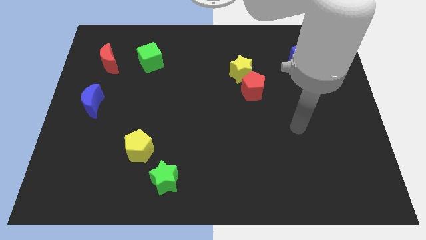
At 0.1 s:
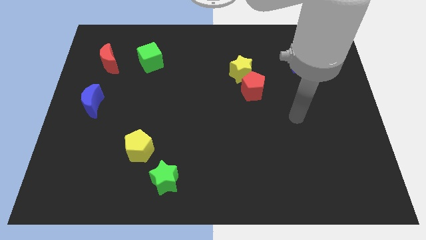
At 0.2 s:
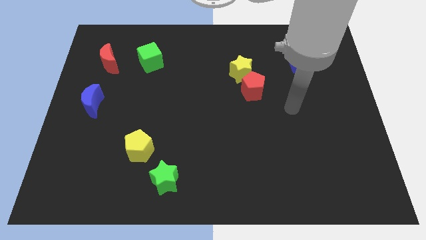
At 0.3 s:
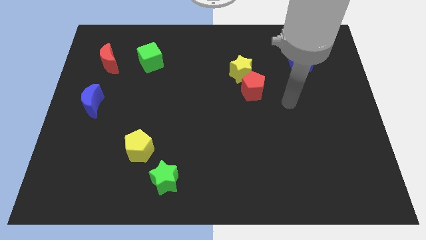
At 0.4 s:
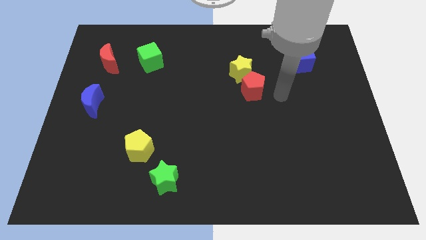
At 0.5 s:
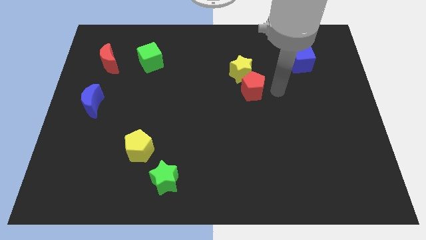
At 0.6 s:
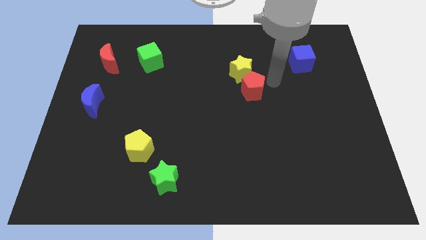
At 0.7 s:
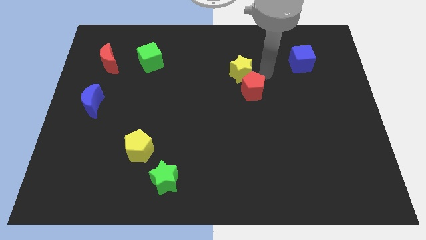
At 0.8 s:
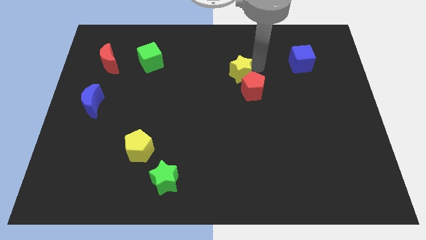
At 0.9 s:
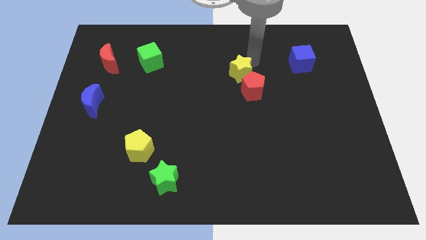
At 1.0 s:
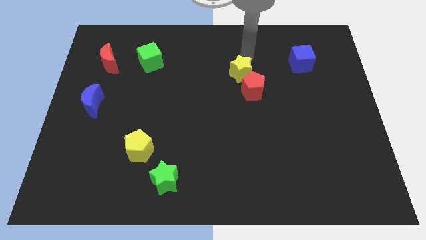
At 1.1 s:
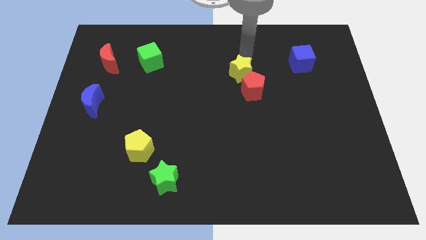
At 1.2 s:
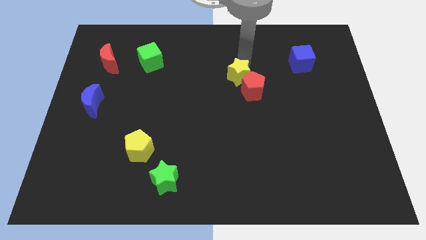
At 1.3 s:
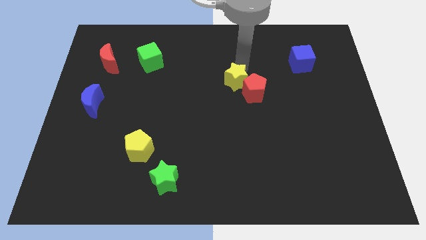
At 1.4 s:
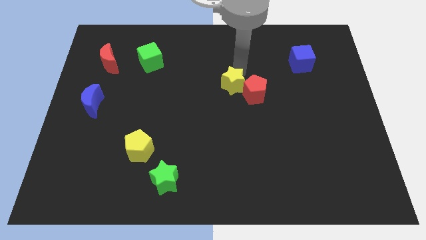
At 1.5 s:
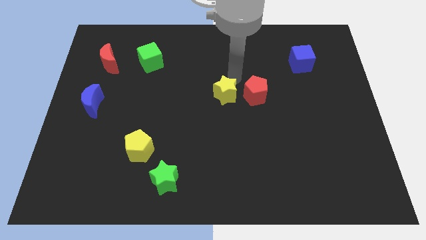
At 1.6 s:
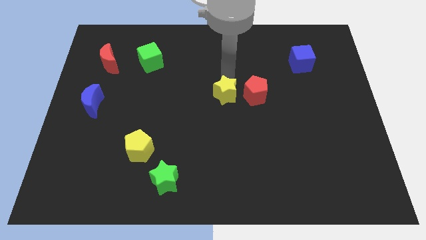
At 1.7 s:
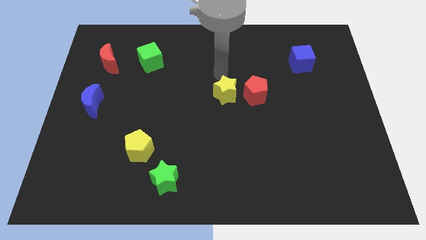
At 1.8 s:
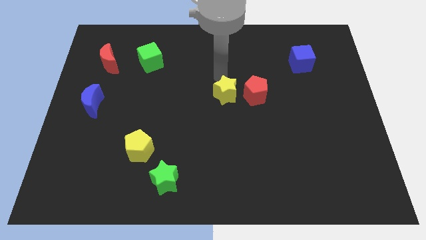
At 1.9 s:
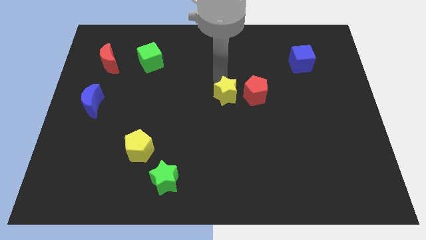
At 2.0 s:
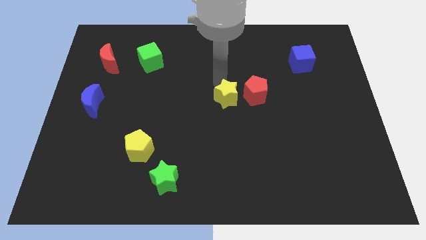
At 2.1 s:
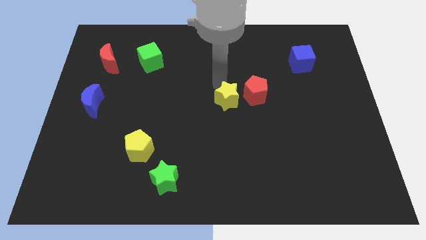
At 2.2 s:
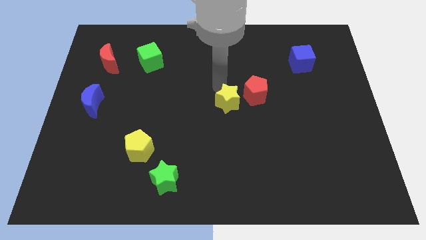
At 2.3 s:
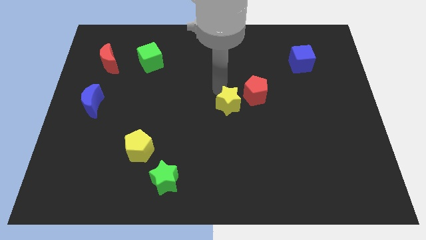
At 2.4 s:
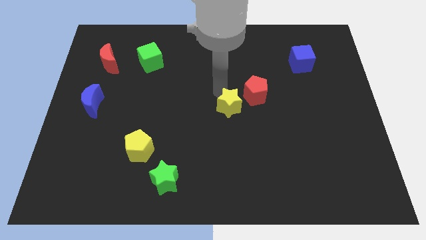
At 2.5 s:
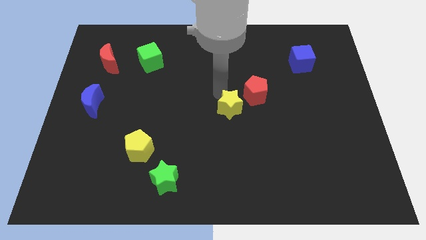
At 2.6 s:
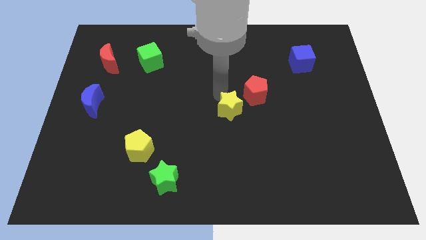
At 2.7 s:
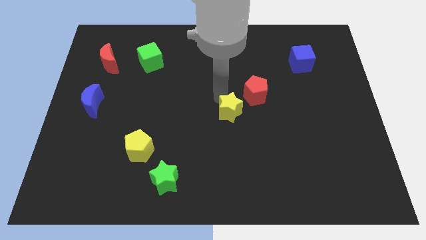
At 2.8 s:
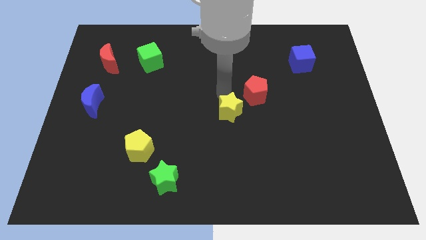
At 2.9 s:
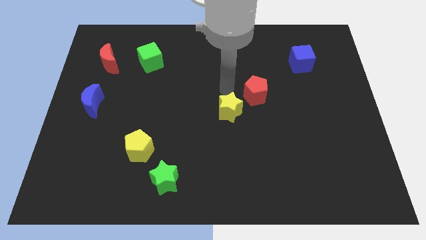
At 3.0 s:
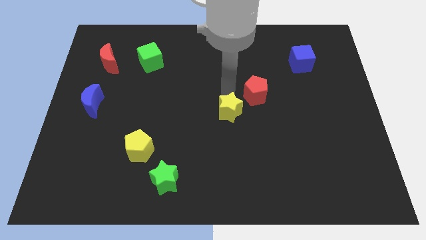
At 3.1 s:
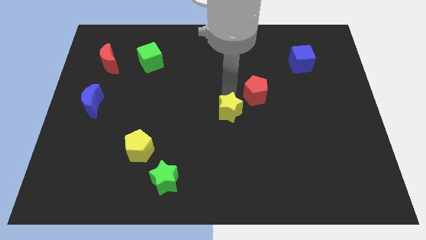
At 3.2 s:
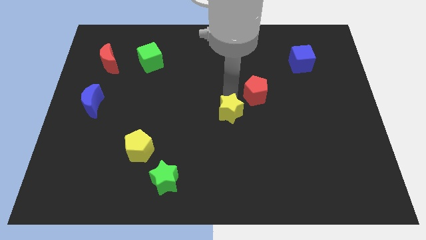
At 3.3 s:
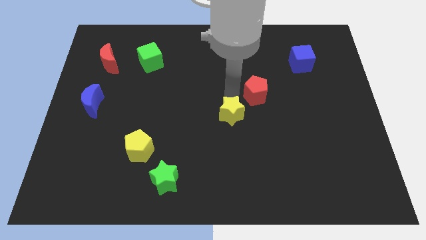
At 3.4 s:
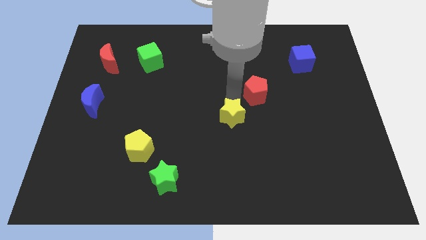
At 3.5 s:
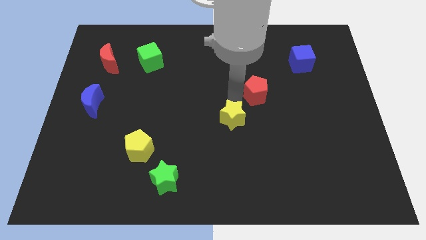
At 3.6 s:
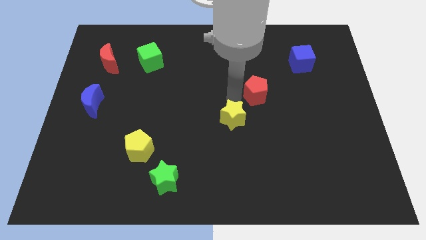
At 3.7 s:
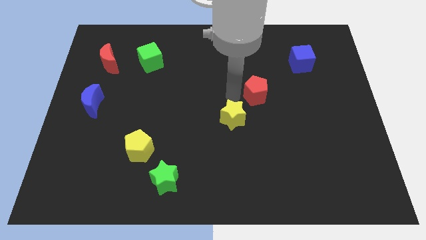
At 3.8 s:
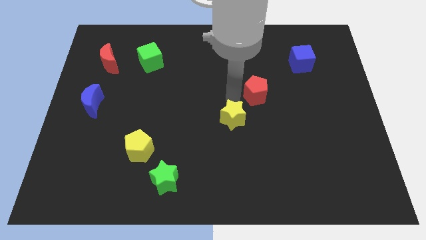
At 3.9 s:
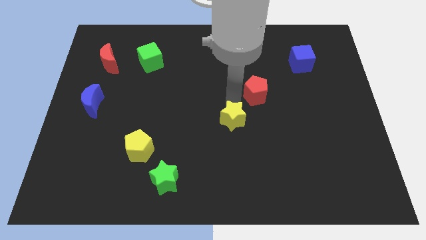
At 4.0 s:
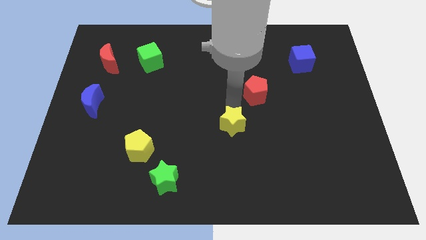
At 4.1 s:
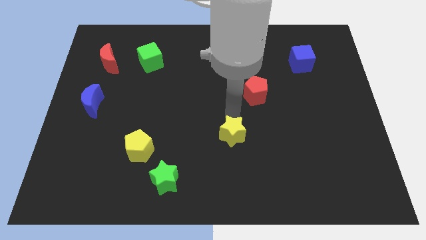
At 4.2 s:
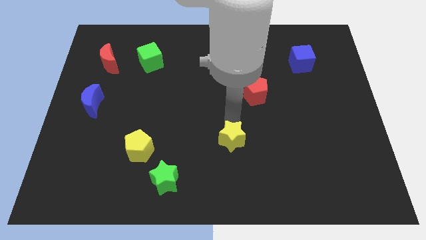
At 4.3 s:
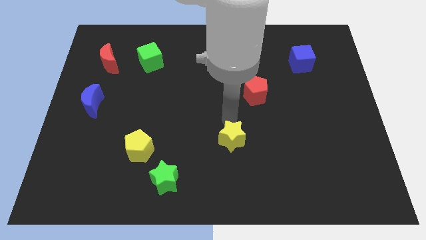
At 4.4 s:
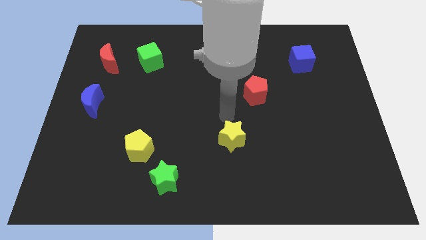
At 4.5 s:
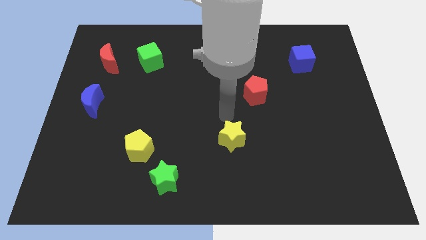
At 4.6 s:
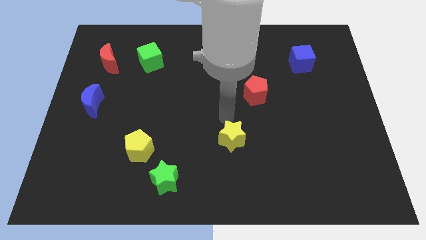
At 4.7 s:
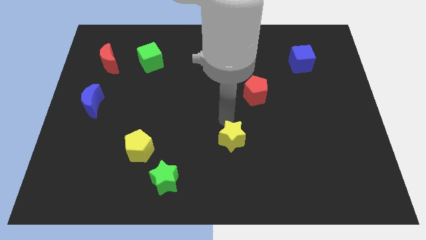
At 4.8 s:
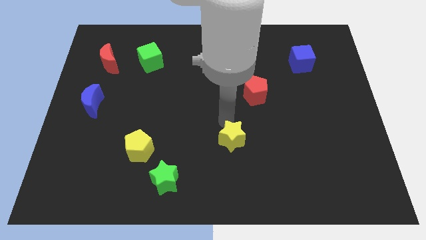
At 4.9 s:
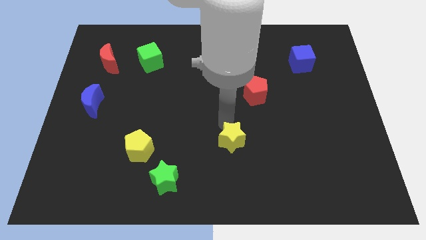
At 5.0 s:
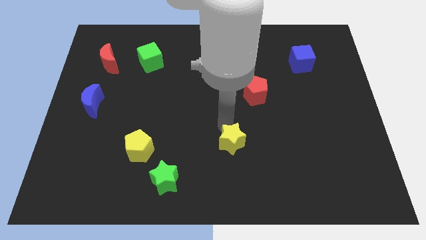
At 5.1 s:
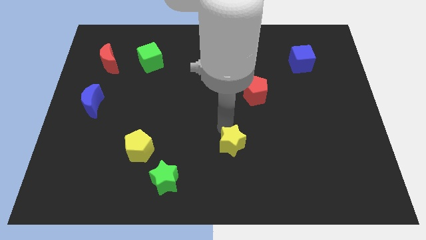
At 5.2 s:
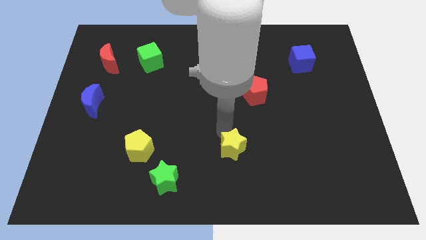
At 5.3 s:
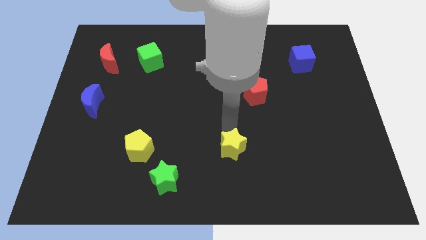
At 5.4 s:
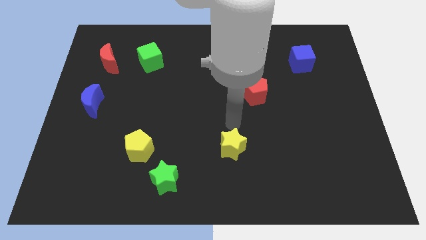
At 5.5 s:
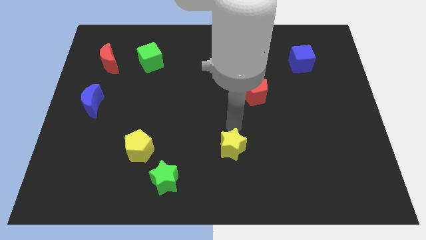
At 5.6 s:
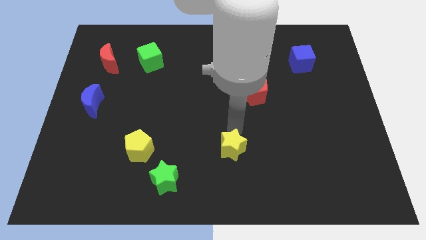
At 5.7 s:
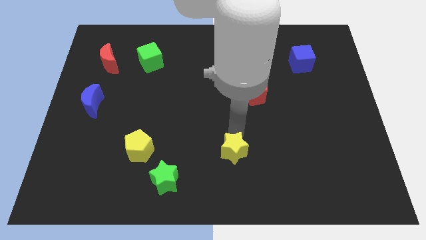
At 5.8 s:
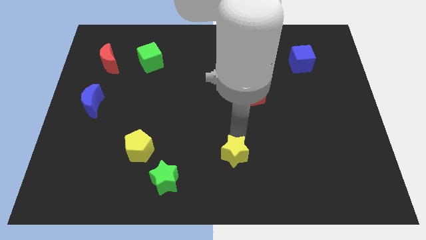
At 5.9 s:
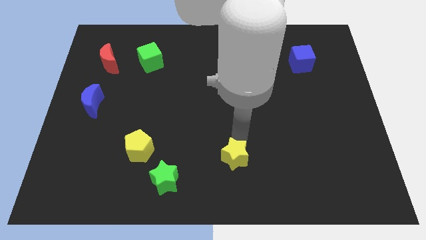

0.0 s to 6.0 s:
push the yellow star to the bottom
